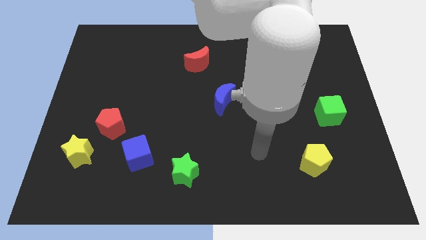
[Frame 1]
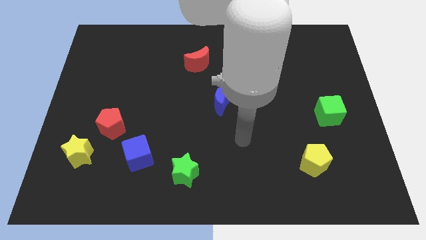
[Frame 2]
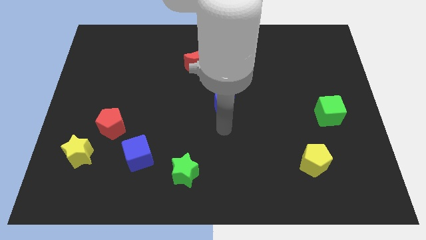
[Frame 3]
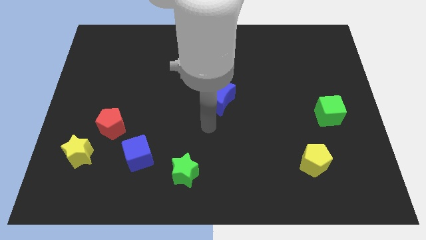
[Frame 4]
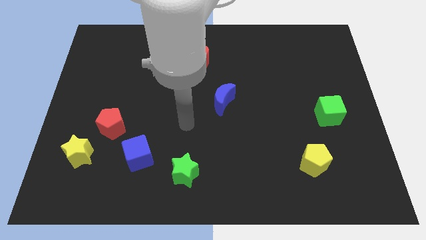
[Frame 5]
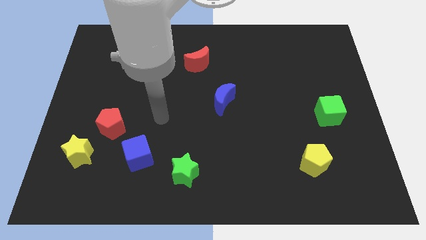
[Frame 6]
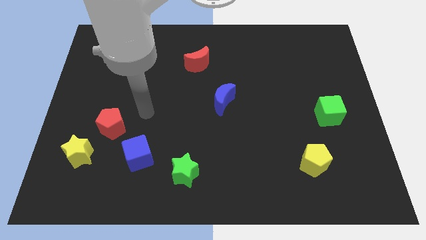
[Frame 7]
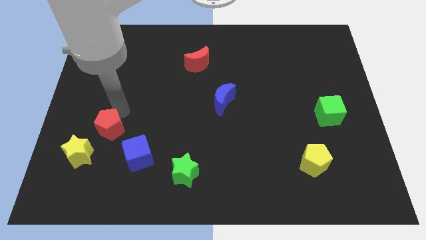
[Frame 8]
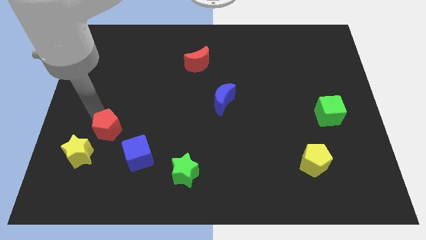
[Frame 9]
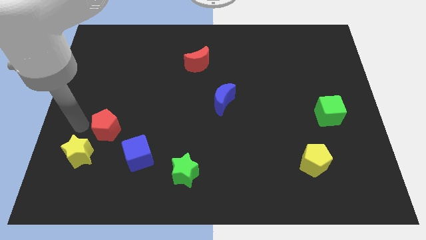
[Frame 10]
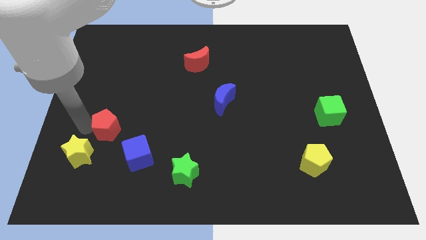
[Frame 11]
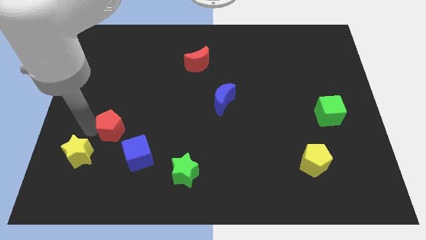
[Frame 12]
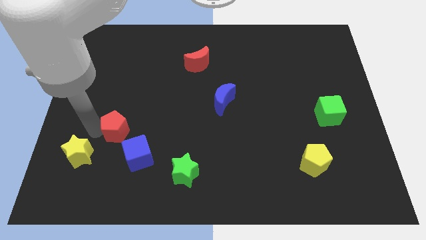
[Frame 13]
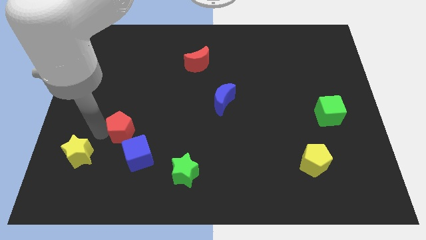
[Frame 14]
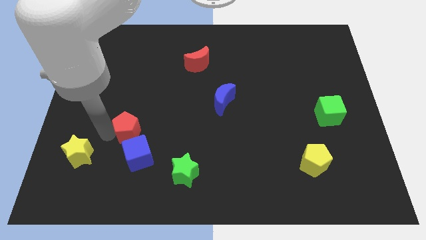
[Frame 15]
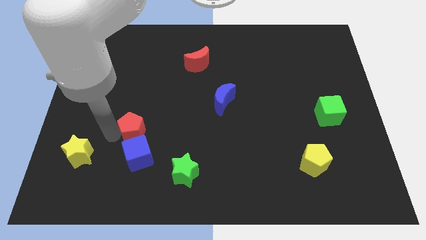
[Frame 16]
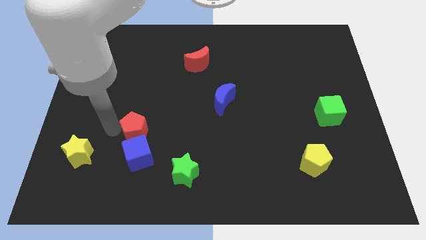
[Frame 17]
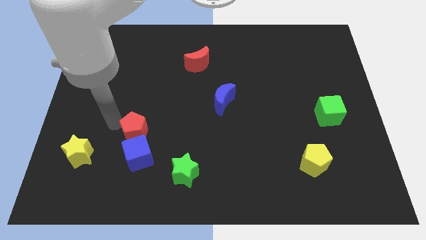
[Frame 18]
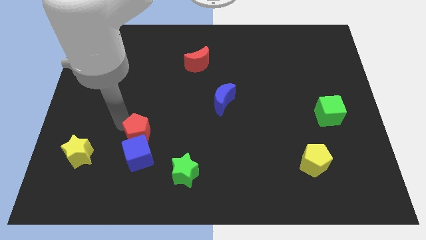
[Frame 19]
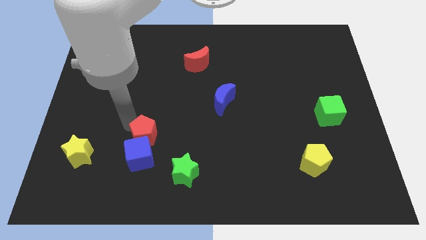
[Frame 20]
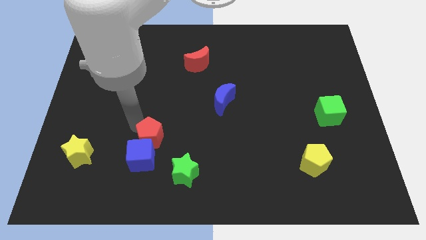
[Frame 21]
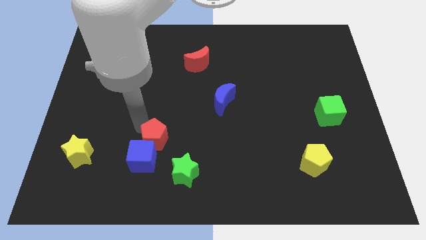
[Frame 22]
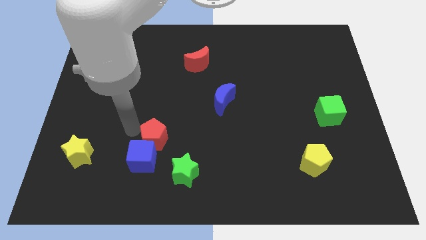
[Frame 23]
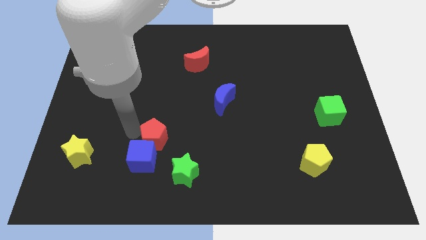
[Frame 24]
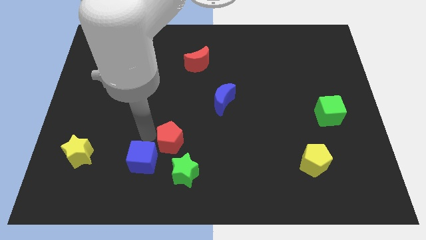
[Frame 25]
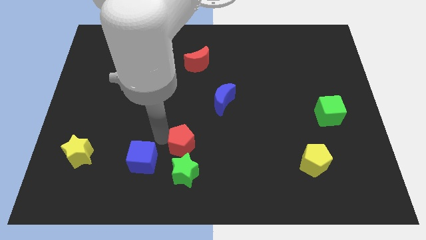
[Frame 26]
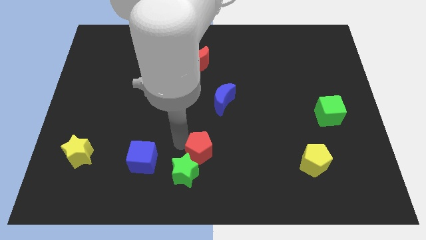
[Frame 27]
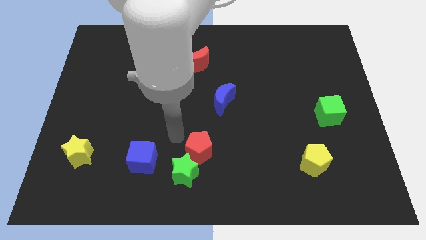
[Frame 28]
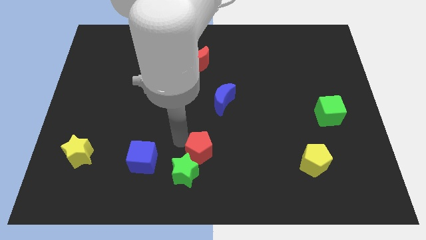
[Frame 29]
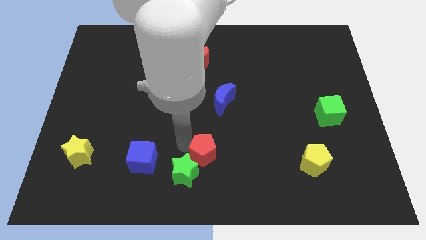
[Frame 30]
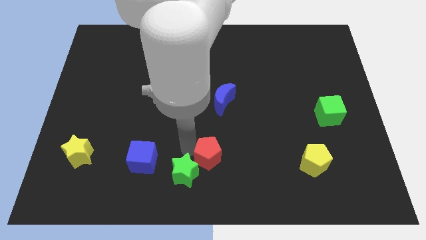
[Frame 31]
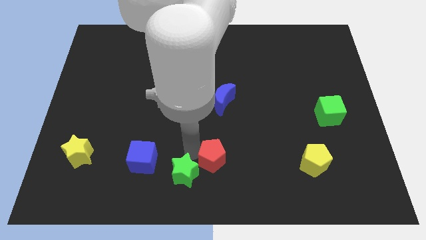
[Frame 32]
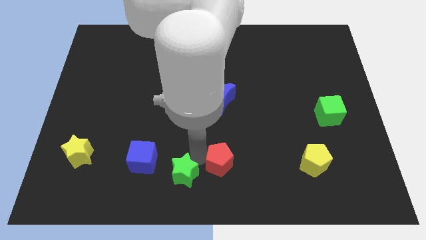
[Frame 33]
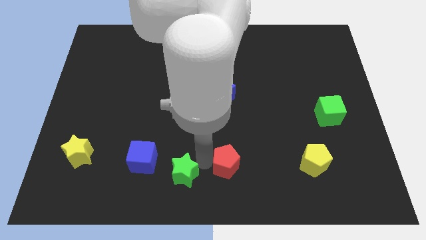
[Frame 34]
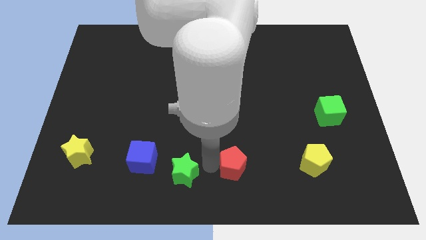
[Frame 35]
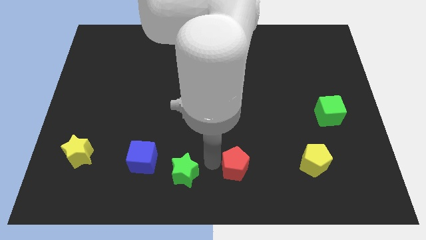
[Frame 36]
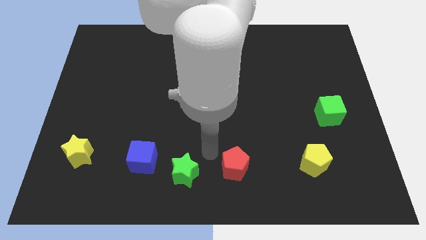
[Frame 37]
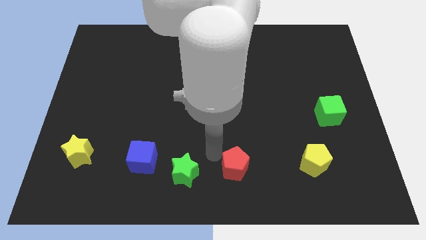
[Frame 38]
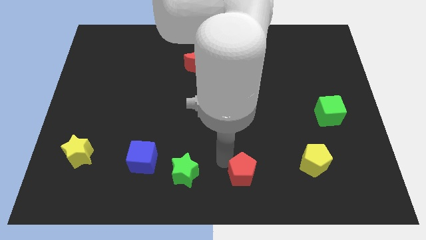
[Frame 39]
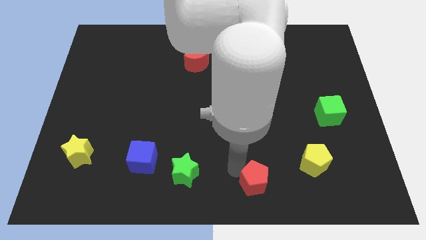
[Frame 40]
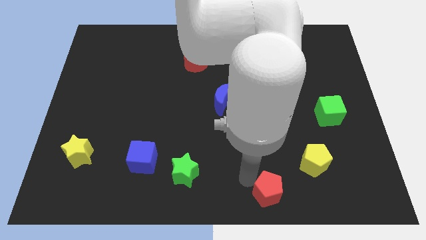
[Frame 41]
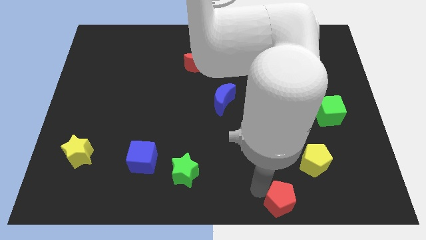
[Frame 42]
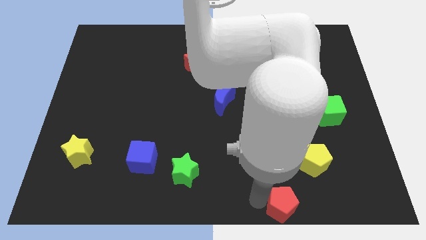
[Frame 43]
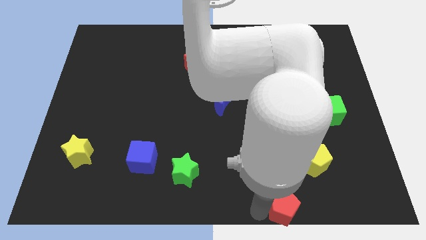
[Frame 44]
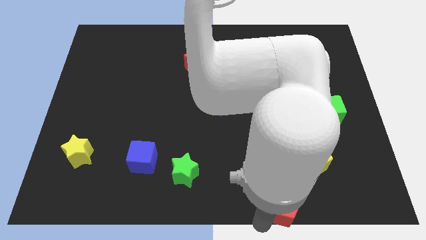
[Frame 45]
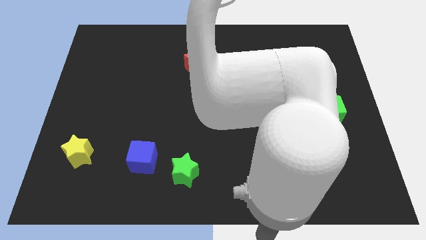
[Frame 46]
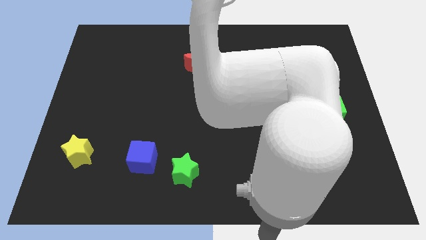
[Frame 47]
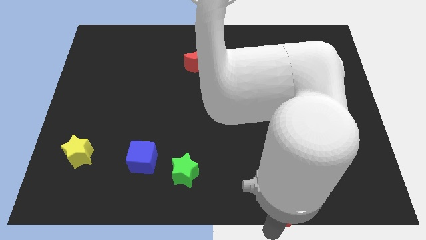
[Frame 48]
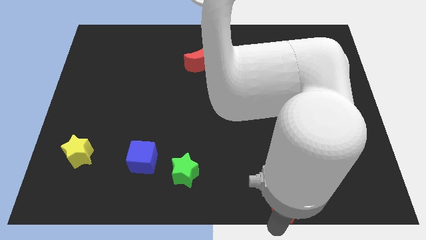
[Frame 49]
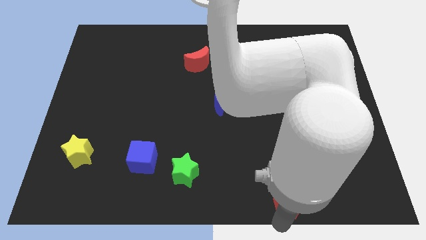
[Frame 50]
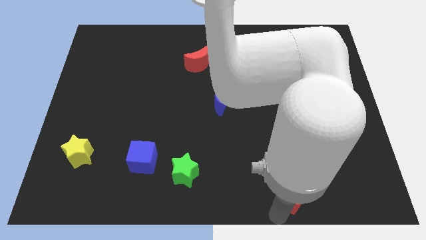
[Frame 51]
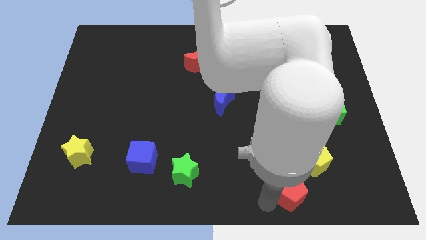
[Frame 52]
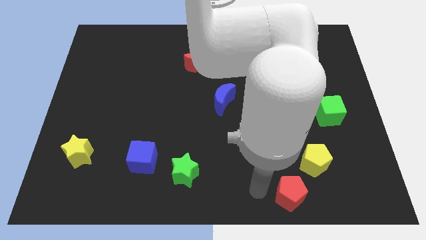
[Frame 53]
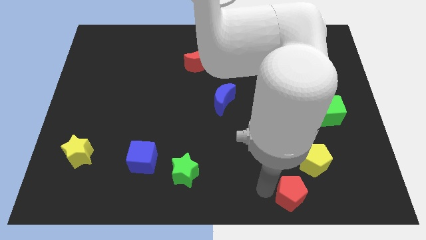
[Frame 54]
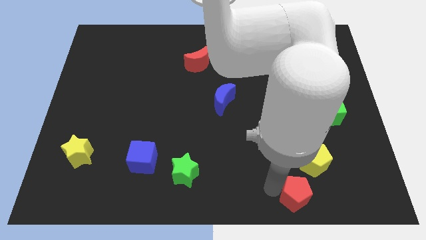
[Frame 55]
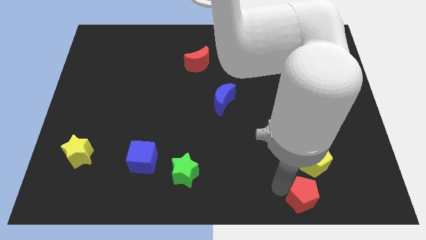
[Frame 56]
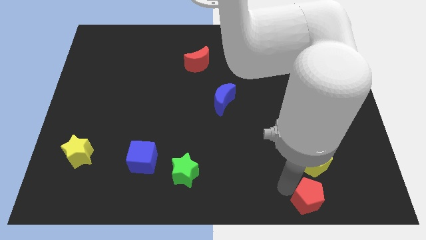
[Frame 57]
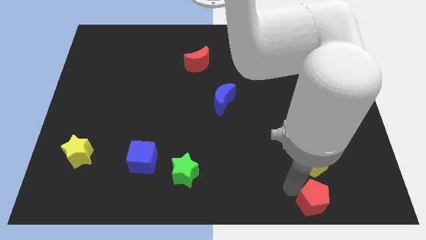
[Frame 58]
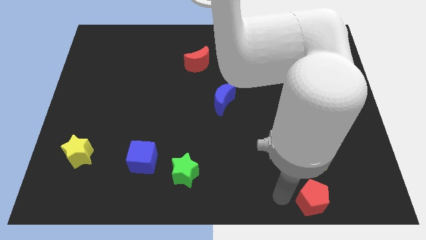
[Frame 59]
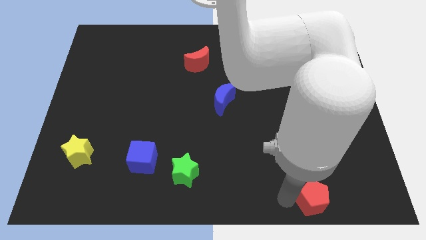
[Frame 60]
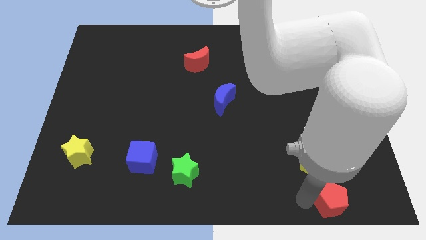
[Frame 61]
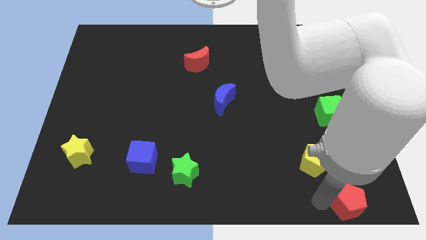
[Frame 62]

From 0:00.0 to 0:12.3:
put the red pentagon to the lower right corner

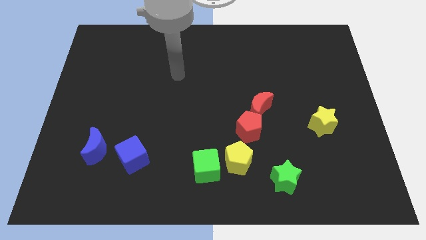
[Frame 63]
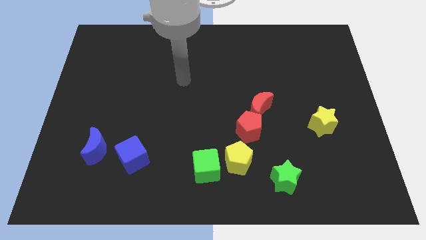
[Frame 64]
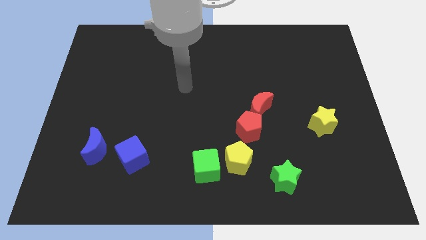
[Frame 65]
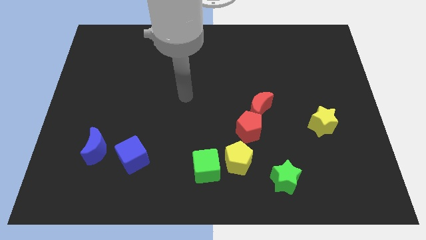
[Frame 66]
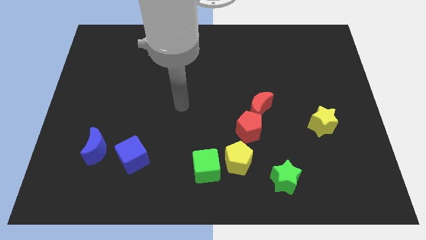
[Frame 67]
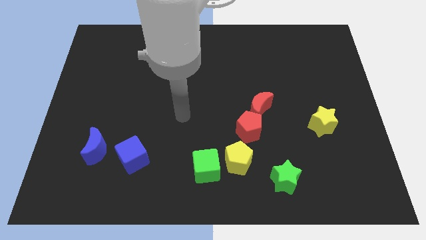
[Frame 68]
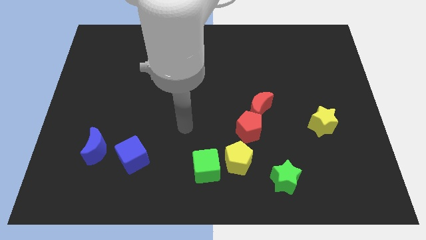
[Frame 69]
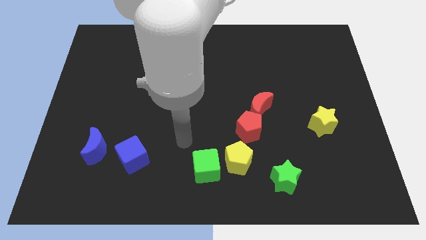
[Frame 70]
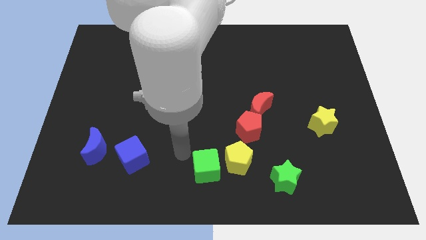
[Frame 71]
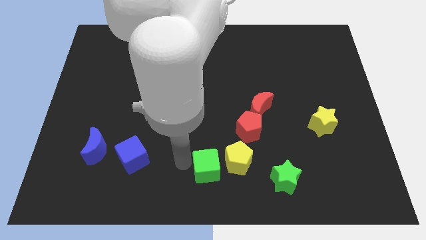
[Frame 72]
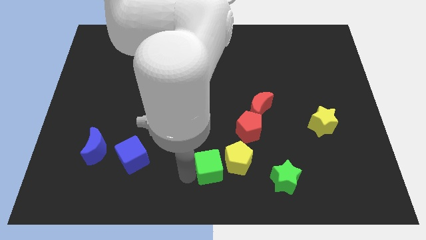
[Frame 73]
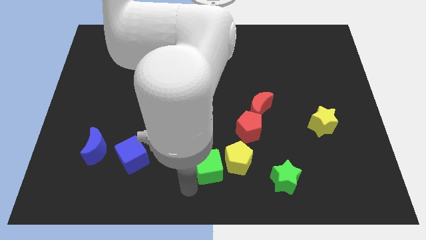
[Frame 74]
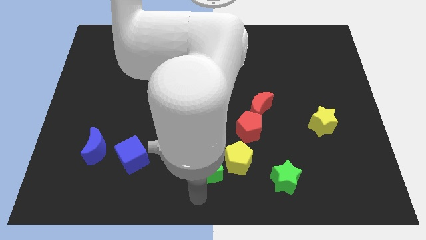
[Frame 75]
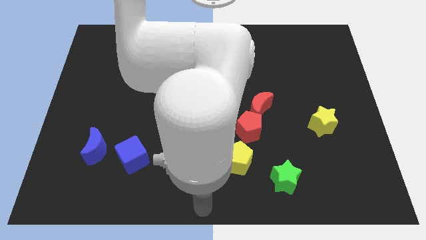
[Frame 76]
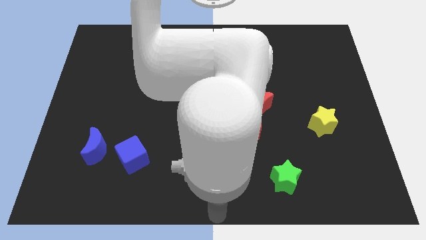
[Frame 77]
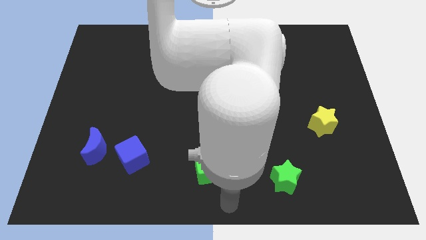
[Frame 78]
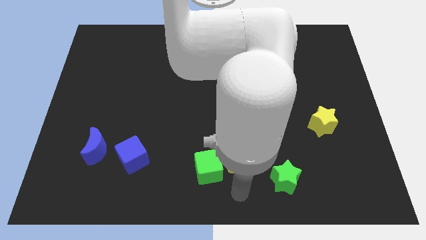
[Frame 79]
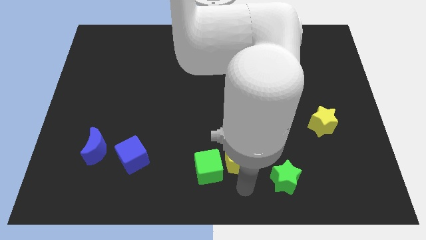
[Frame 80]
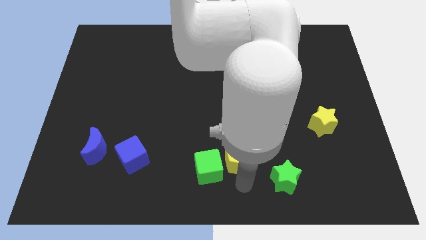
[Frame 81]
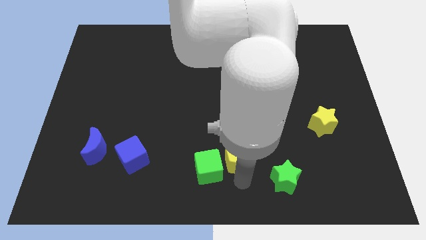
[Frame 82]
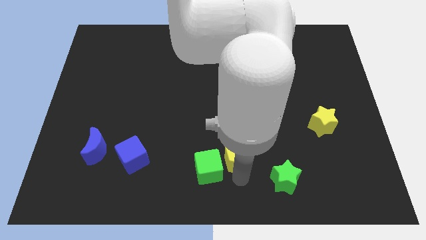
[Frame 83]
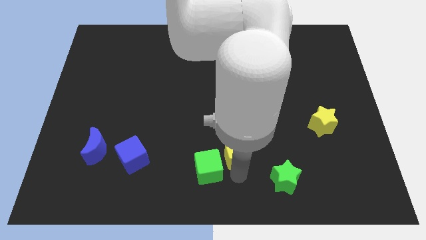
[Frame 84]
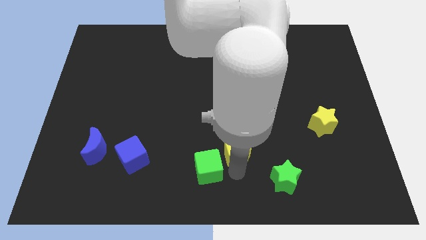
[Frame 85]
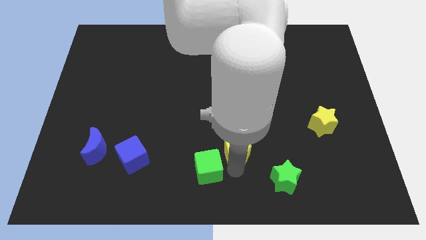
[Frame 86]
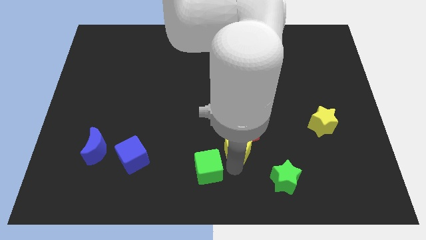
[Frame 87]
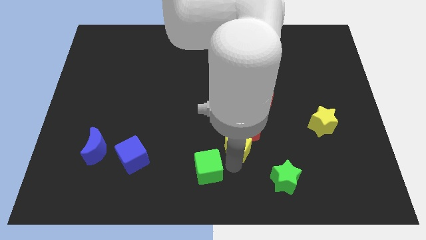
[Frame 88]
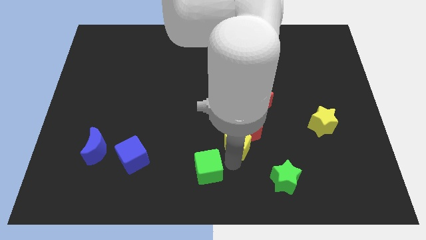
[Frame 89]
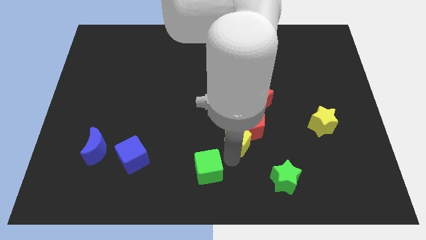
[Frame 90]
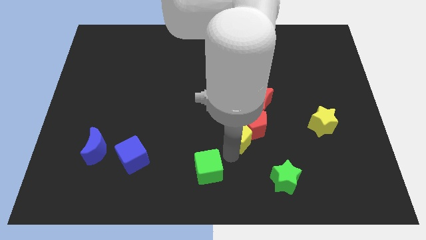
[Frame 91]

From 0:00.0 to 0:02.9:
move the yellow pentagon to the center
